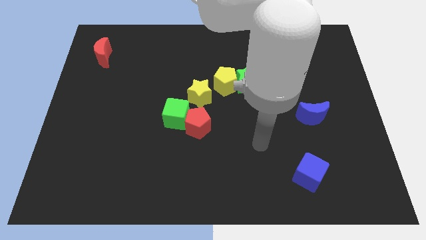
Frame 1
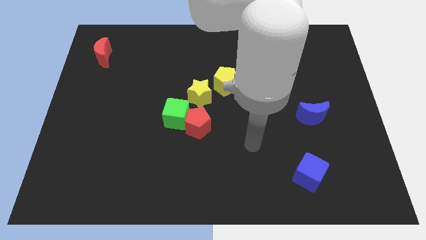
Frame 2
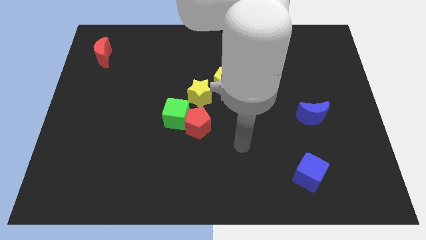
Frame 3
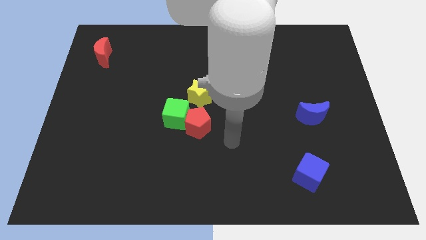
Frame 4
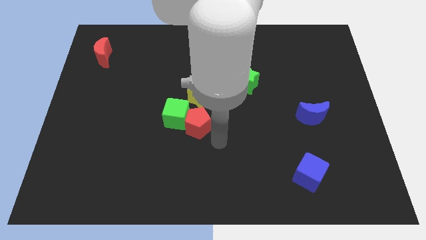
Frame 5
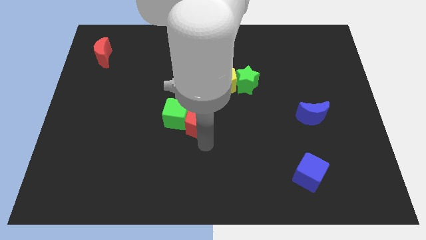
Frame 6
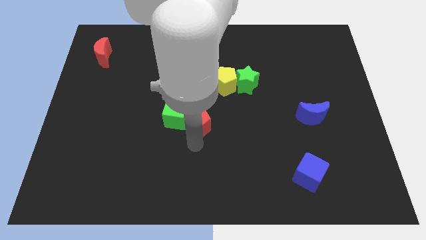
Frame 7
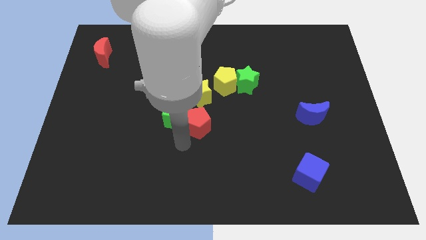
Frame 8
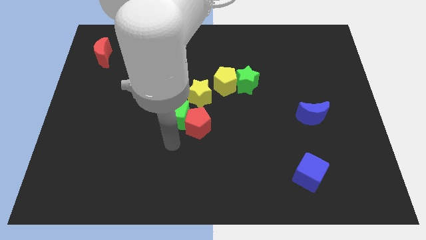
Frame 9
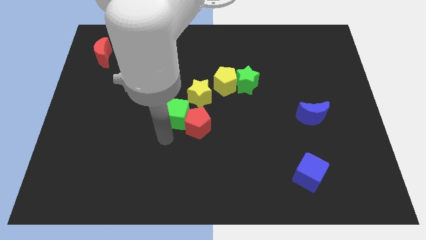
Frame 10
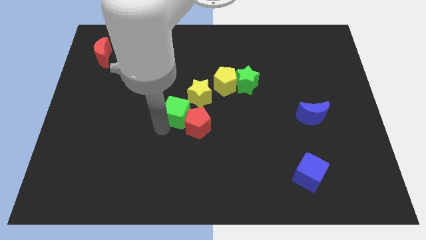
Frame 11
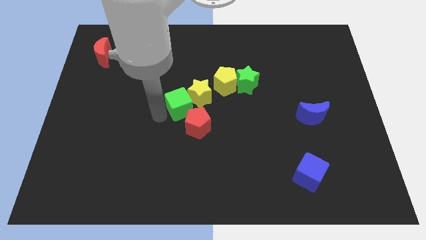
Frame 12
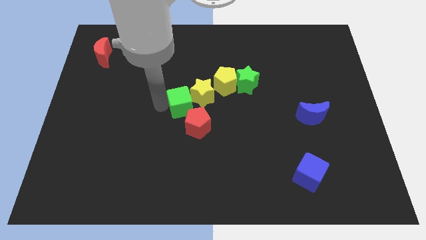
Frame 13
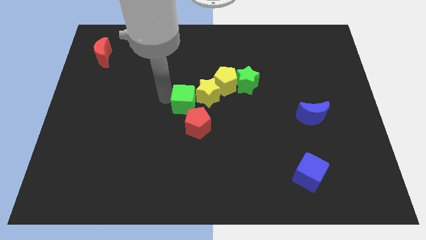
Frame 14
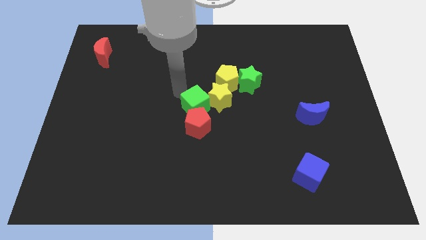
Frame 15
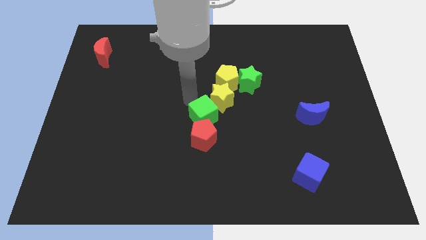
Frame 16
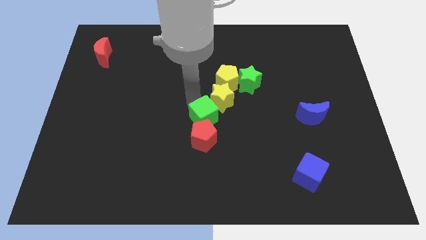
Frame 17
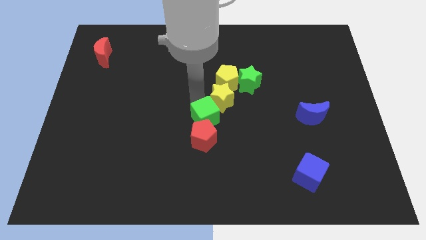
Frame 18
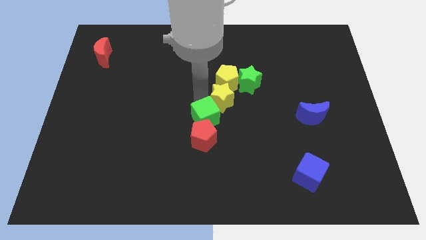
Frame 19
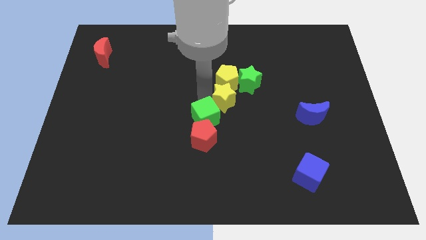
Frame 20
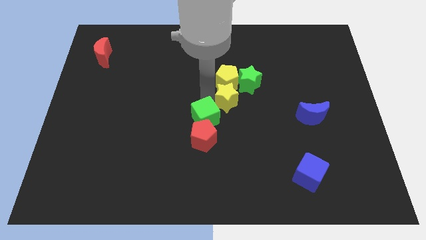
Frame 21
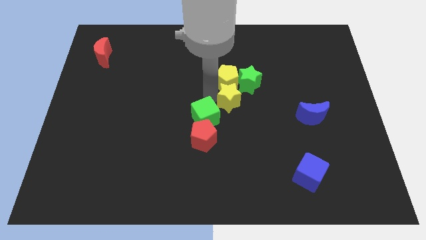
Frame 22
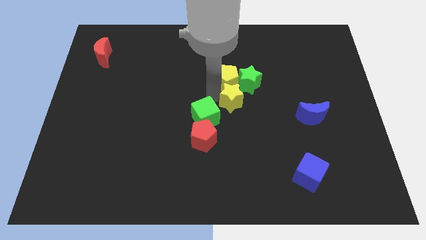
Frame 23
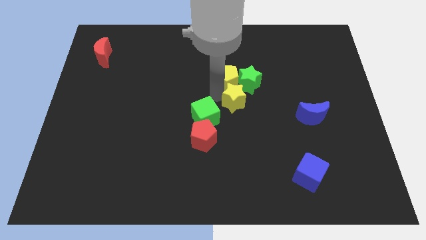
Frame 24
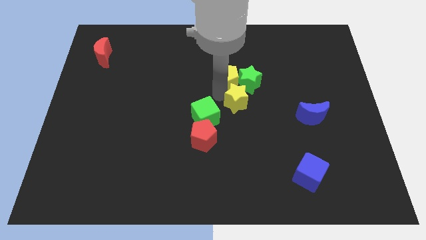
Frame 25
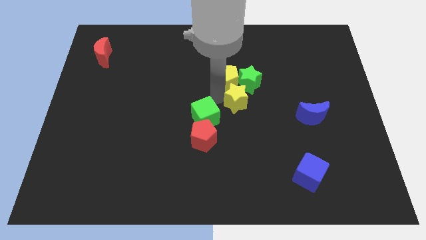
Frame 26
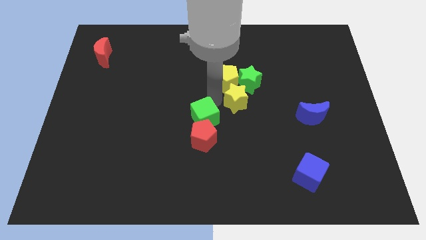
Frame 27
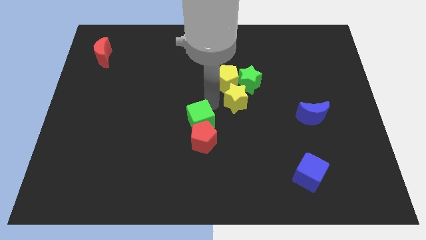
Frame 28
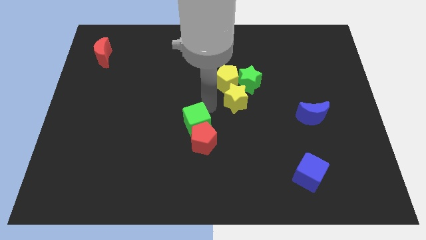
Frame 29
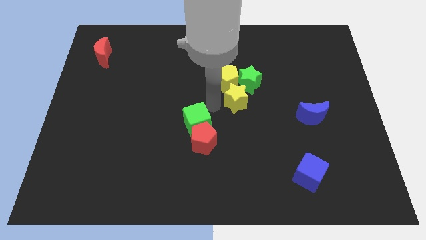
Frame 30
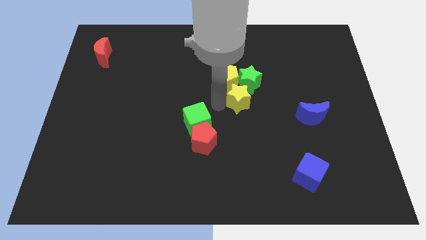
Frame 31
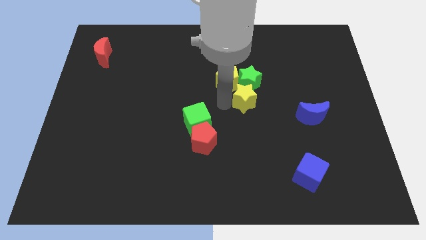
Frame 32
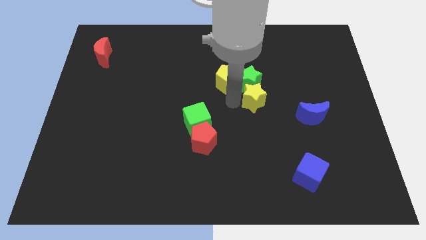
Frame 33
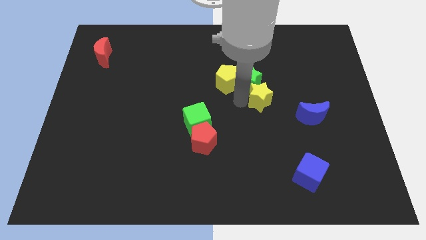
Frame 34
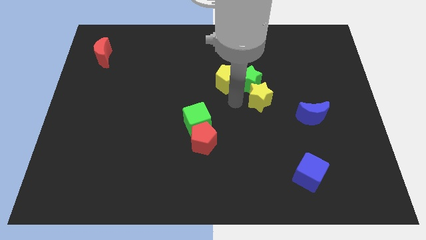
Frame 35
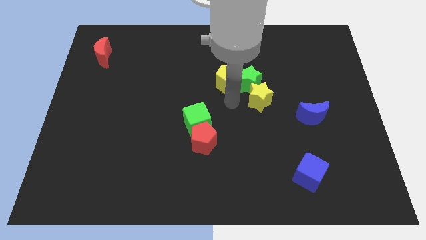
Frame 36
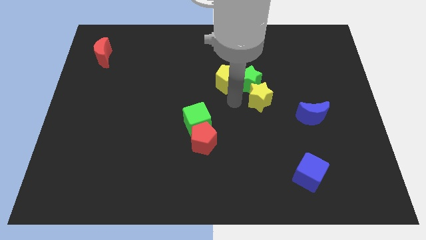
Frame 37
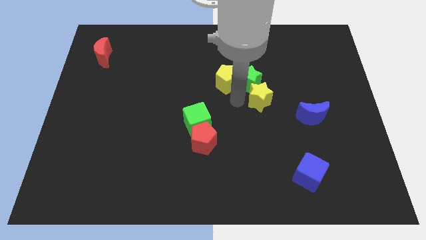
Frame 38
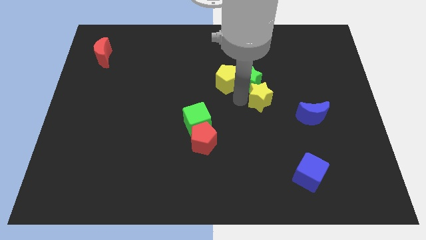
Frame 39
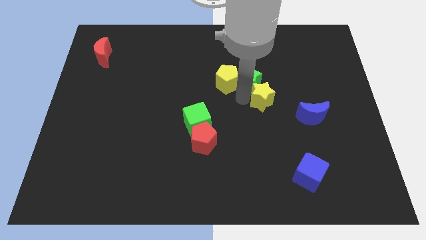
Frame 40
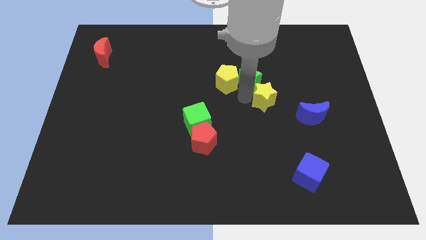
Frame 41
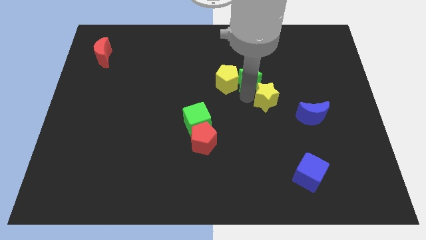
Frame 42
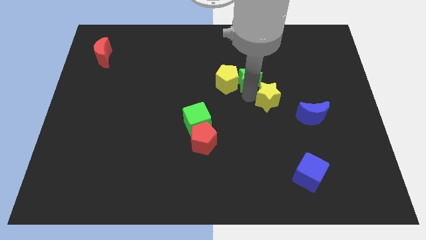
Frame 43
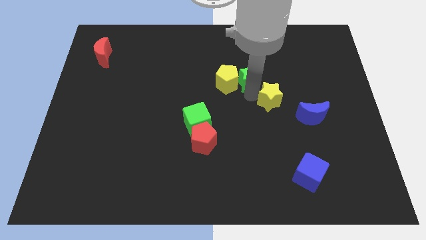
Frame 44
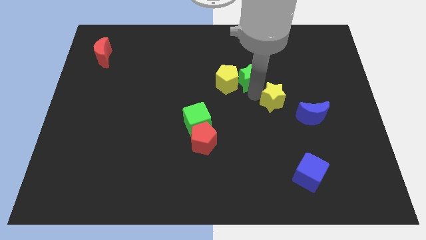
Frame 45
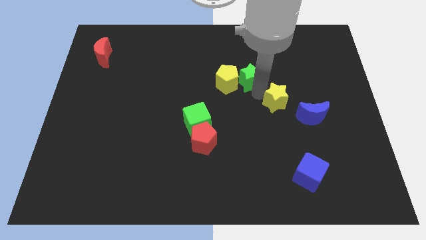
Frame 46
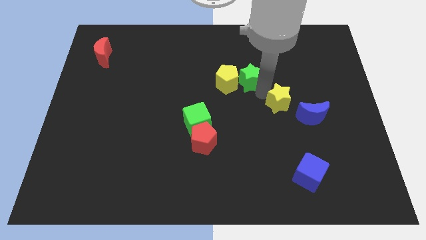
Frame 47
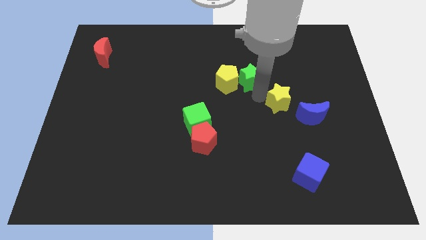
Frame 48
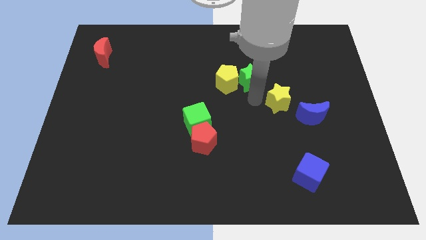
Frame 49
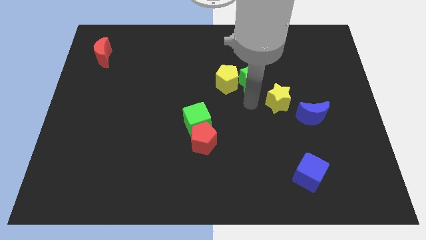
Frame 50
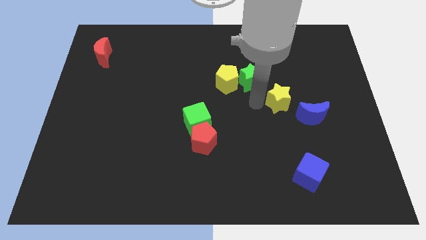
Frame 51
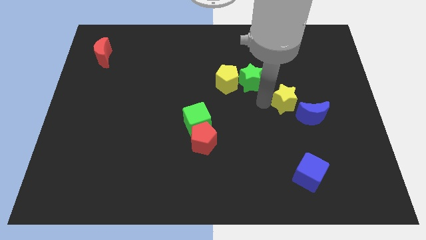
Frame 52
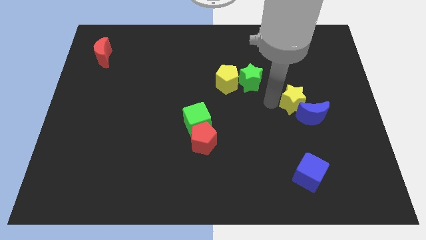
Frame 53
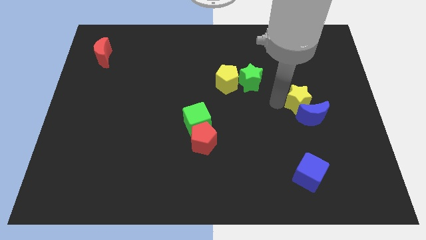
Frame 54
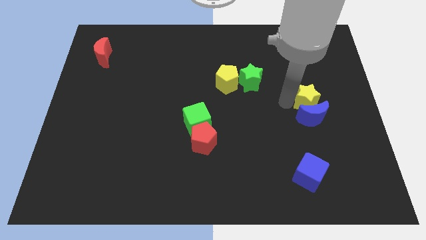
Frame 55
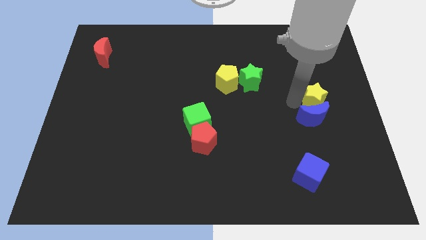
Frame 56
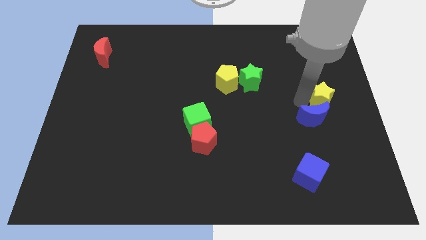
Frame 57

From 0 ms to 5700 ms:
slide the yellow star to the right side

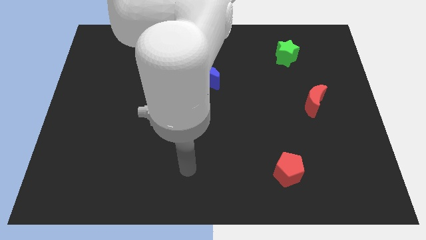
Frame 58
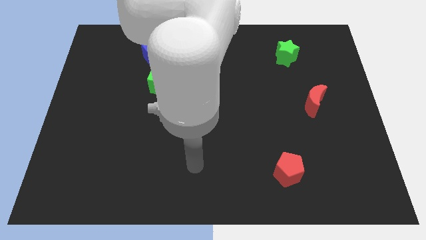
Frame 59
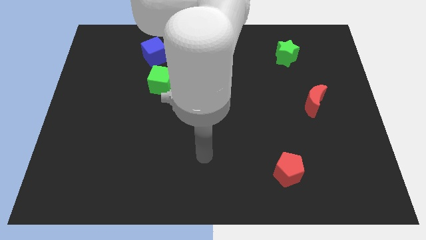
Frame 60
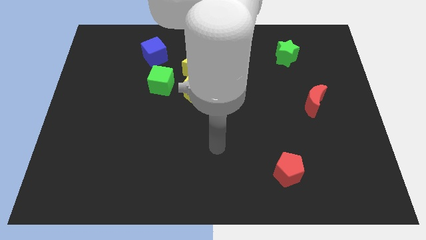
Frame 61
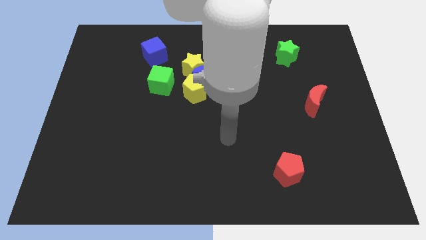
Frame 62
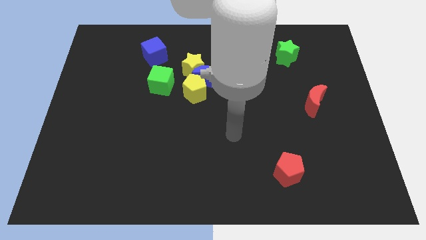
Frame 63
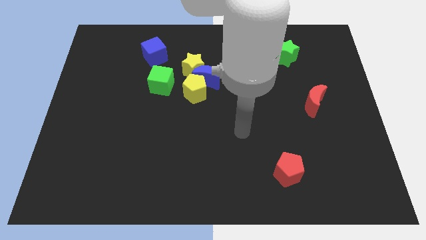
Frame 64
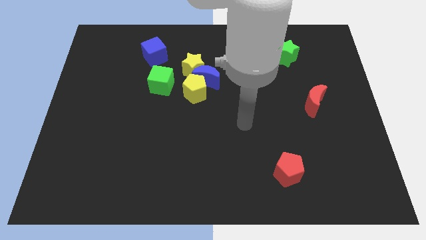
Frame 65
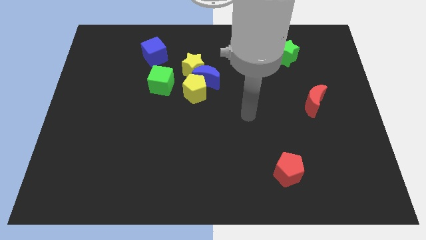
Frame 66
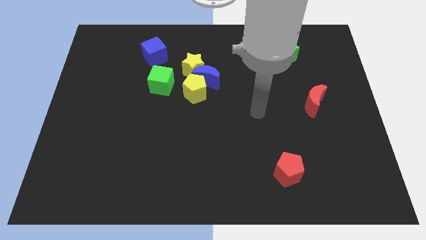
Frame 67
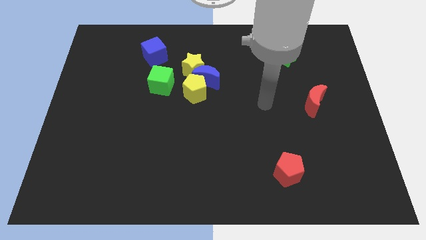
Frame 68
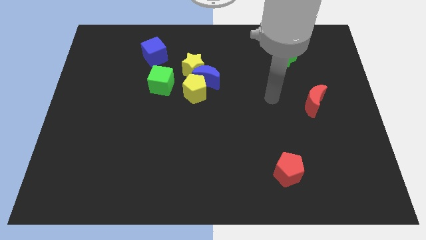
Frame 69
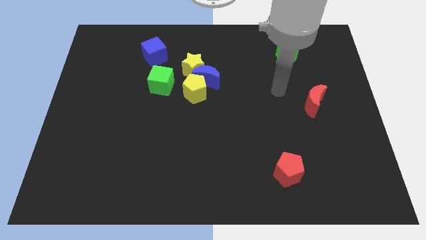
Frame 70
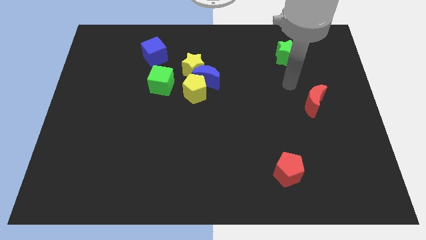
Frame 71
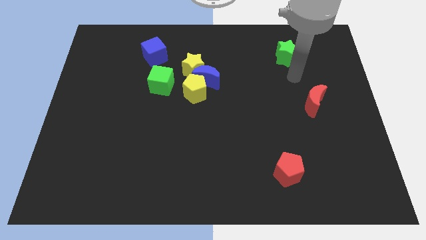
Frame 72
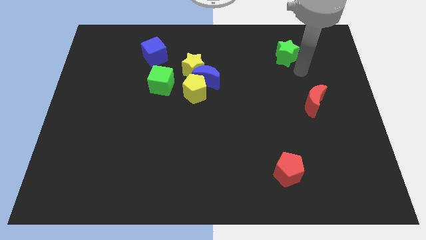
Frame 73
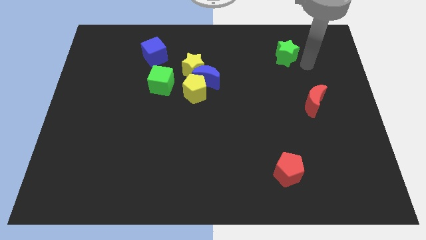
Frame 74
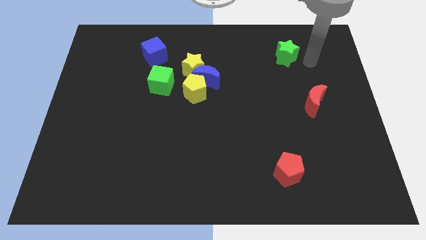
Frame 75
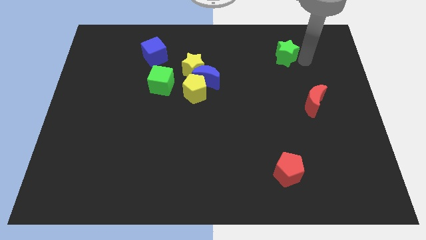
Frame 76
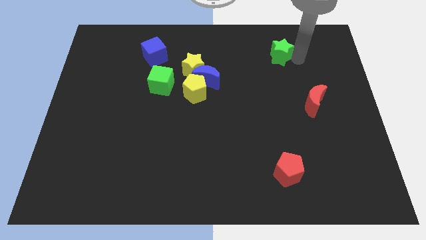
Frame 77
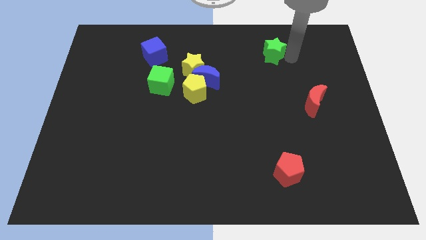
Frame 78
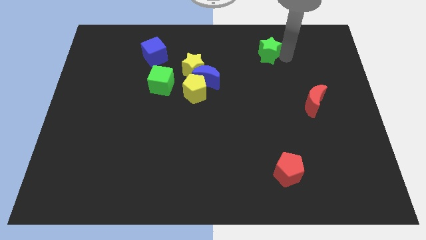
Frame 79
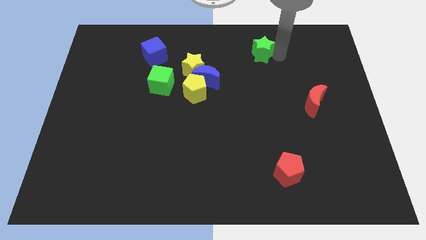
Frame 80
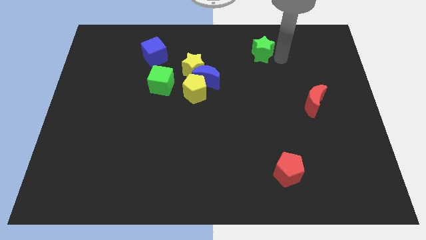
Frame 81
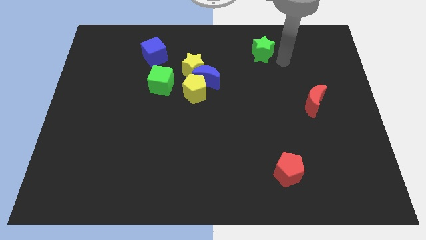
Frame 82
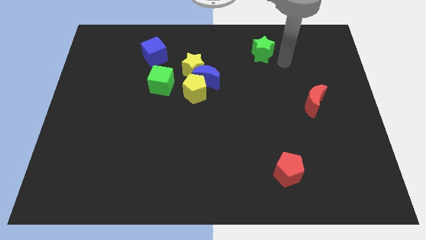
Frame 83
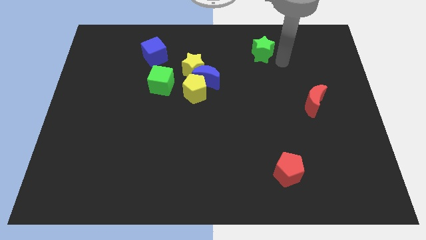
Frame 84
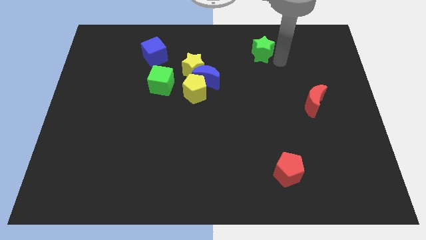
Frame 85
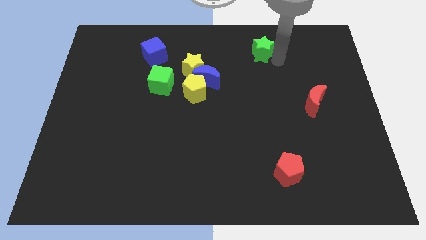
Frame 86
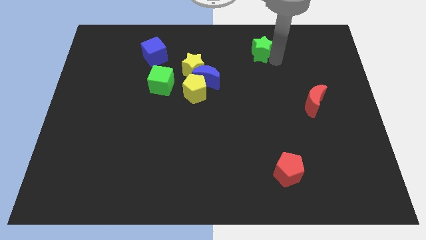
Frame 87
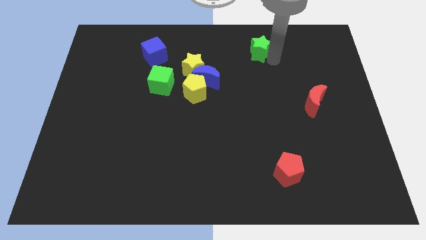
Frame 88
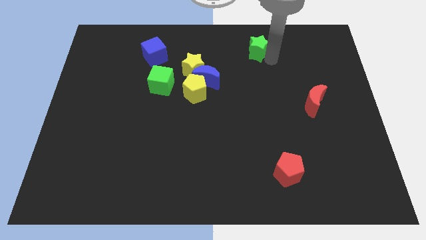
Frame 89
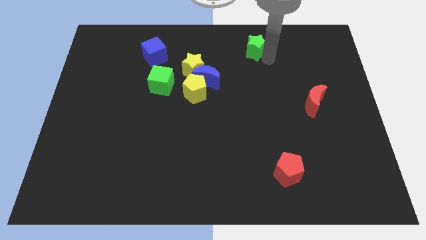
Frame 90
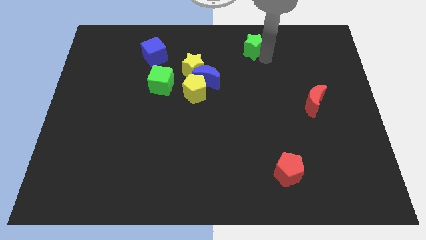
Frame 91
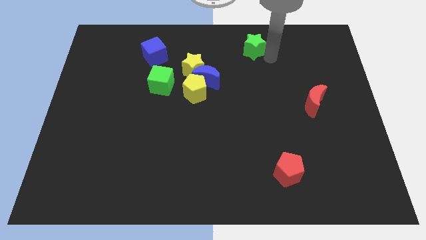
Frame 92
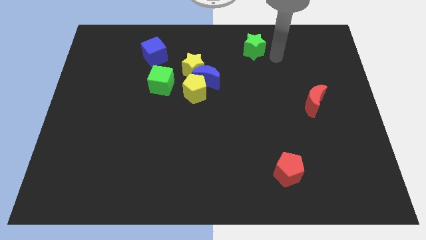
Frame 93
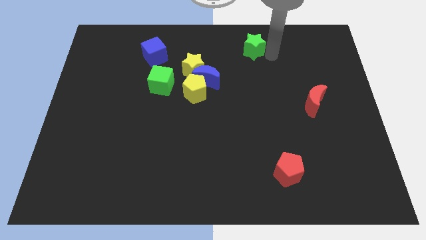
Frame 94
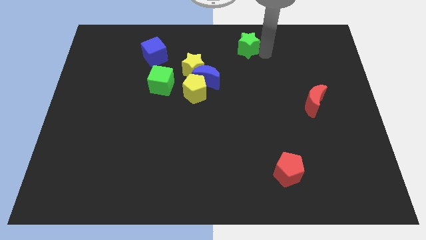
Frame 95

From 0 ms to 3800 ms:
push the green star to the top side
